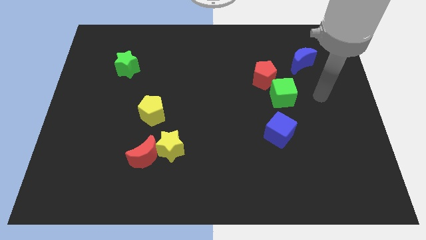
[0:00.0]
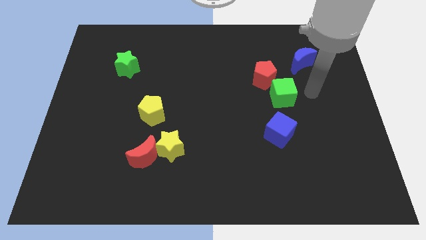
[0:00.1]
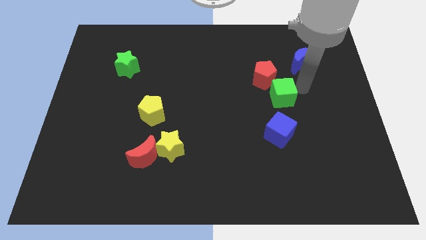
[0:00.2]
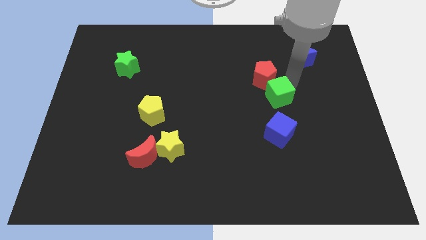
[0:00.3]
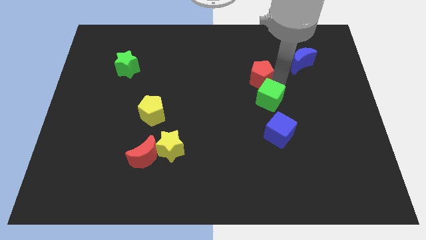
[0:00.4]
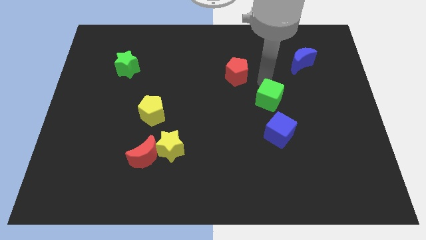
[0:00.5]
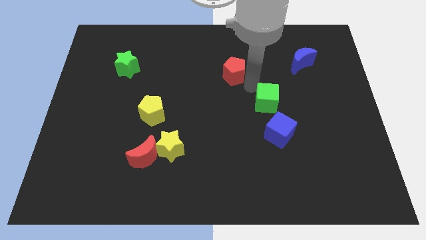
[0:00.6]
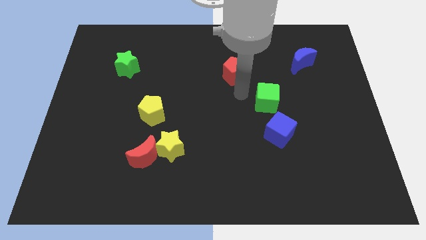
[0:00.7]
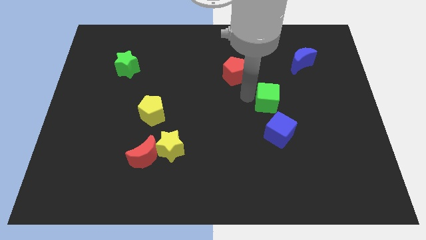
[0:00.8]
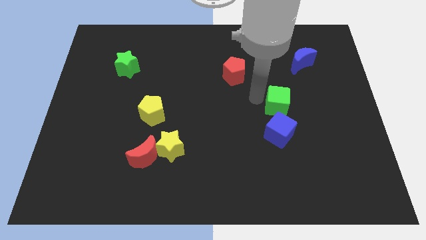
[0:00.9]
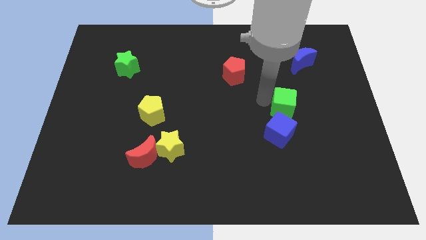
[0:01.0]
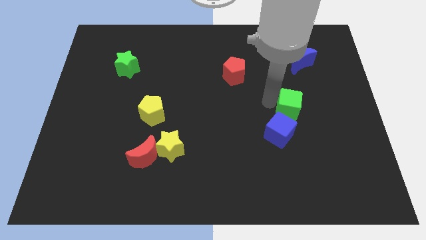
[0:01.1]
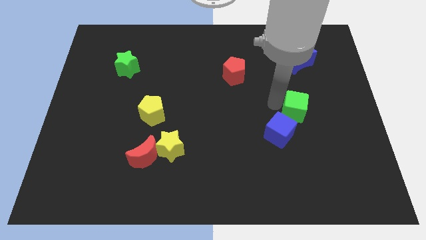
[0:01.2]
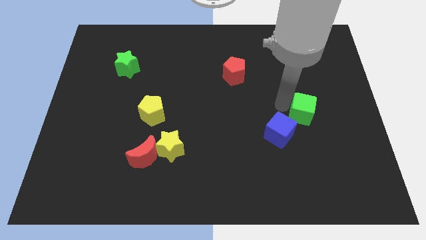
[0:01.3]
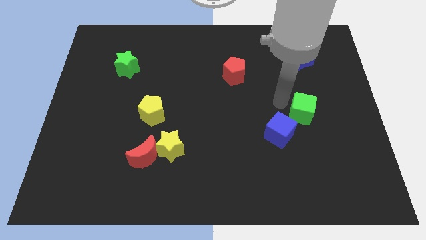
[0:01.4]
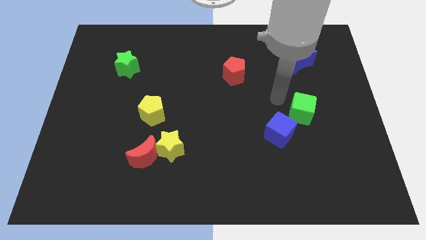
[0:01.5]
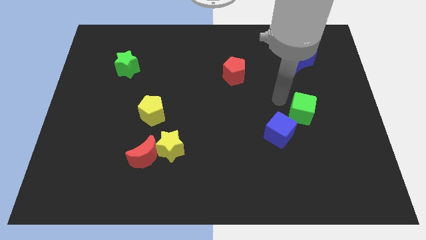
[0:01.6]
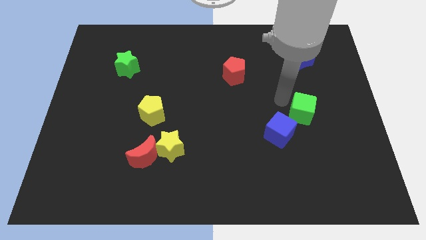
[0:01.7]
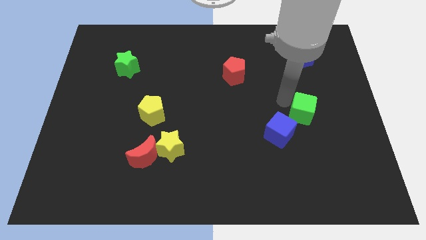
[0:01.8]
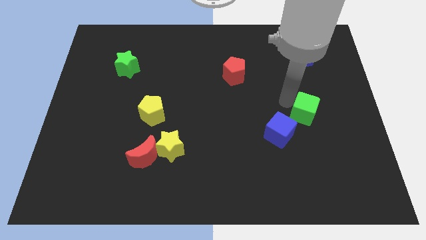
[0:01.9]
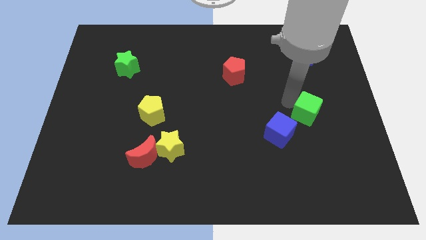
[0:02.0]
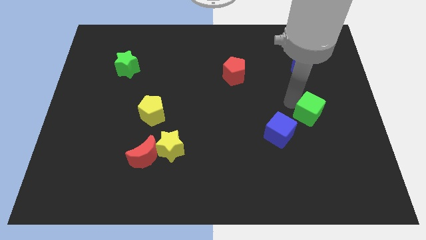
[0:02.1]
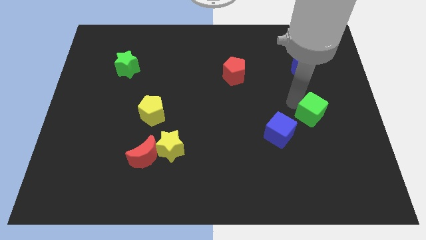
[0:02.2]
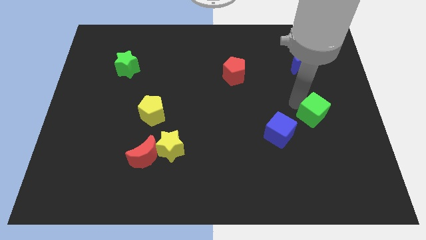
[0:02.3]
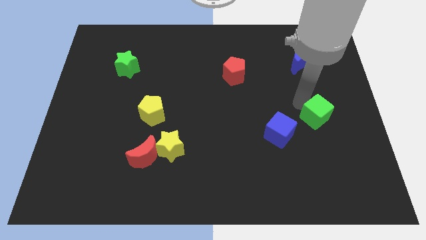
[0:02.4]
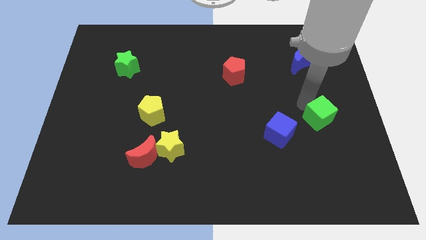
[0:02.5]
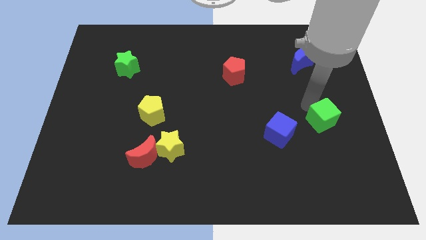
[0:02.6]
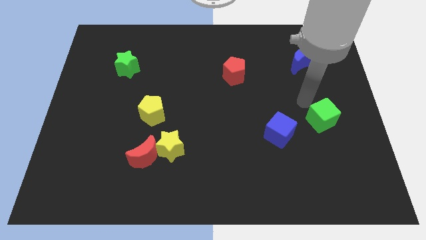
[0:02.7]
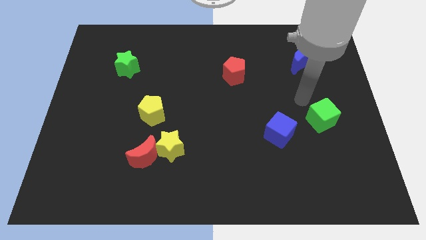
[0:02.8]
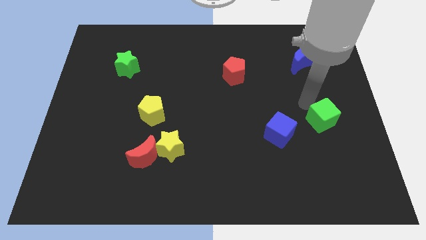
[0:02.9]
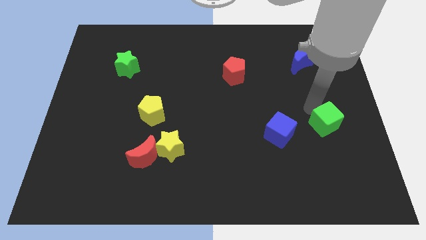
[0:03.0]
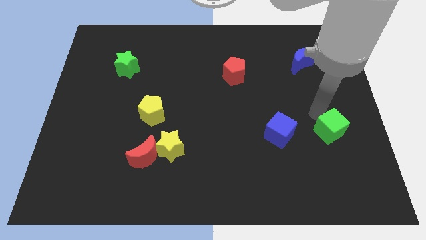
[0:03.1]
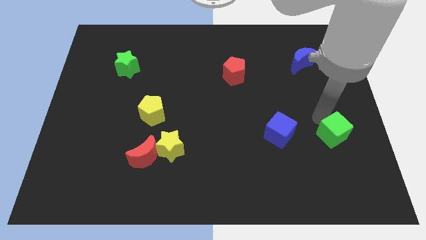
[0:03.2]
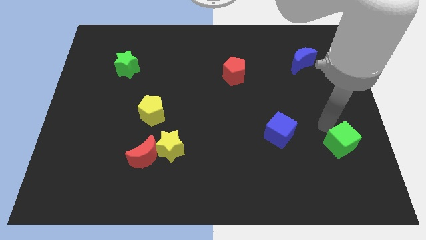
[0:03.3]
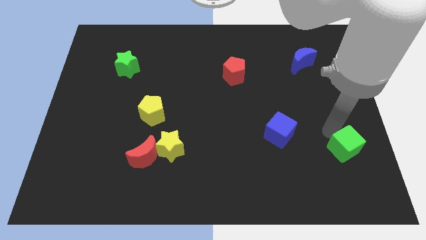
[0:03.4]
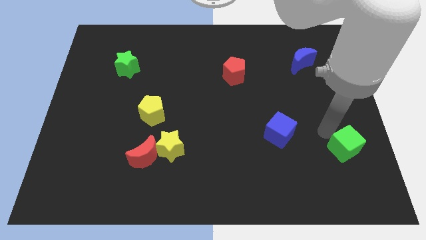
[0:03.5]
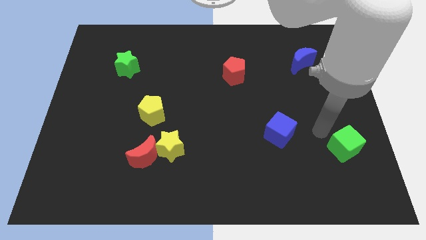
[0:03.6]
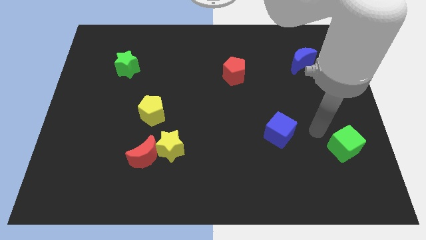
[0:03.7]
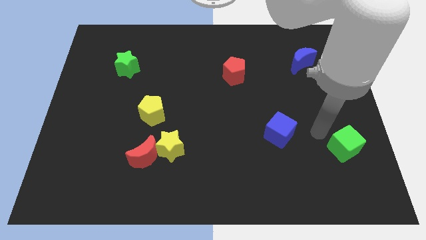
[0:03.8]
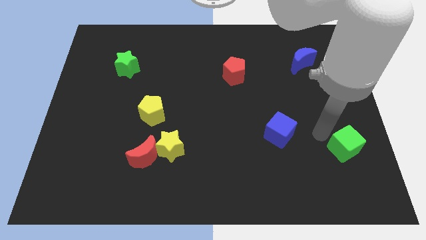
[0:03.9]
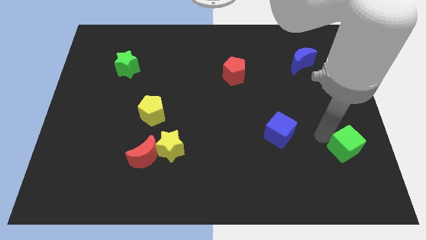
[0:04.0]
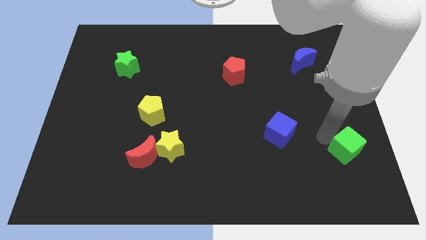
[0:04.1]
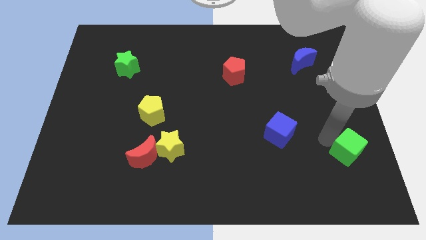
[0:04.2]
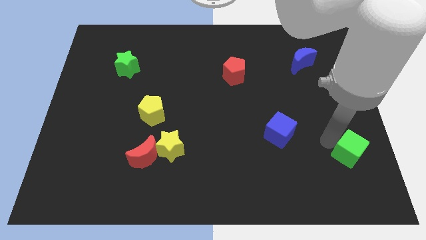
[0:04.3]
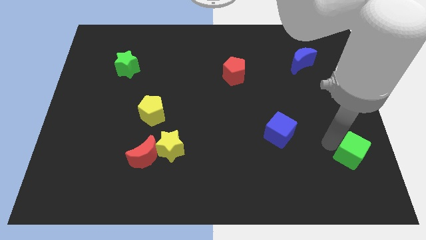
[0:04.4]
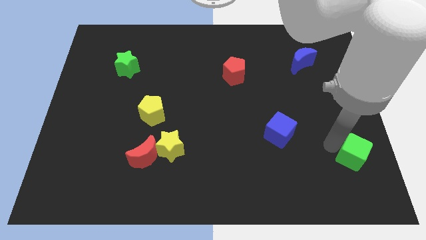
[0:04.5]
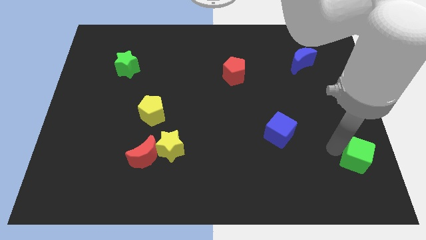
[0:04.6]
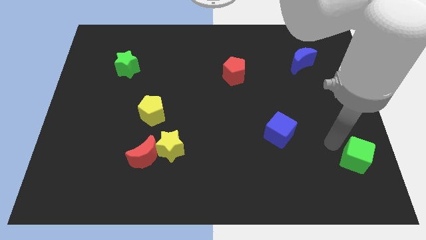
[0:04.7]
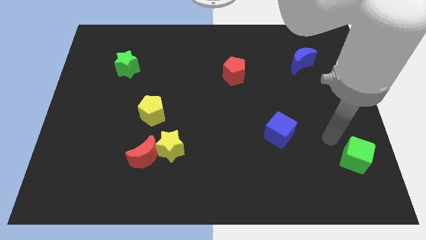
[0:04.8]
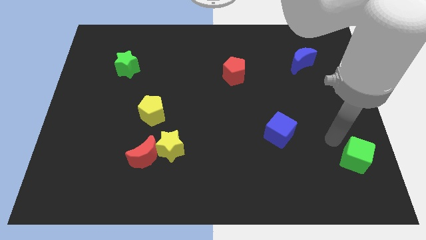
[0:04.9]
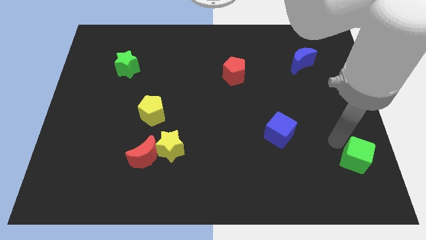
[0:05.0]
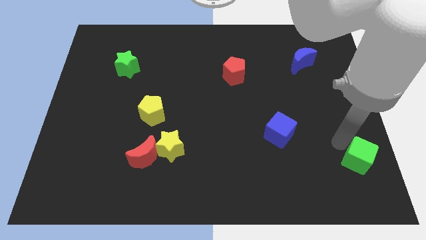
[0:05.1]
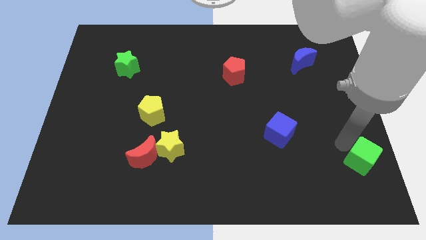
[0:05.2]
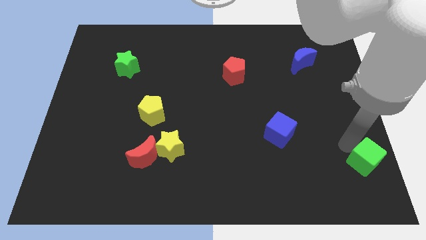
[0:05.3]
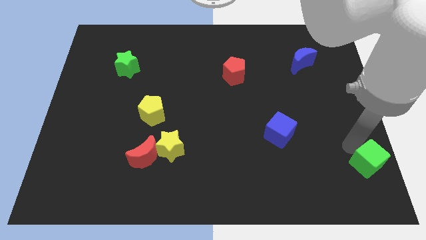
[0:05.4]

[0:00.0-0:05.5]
move the green cube to the bottom right corner

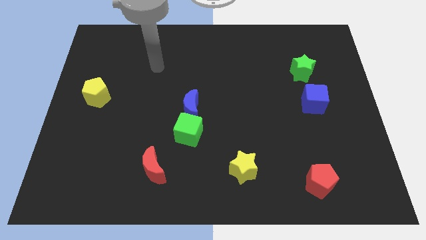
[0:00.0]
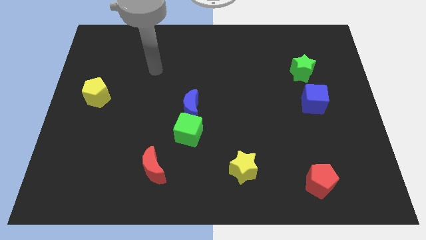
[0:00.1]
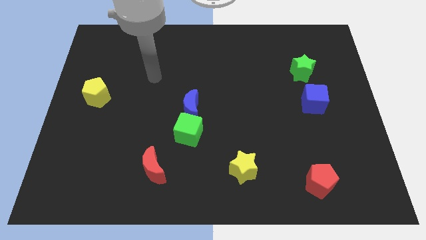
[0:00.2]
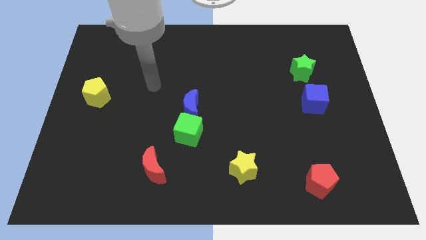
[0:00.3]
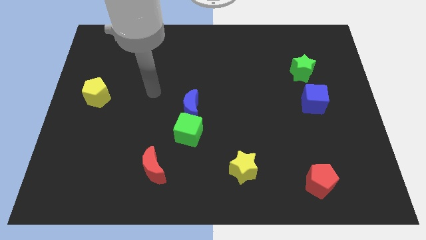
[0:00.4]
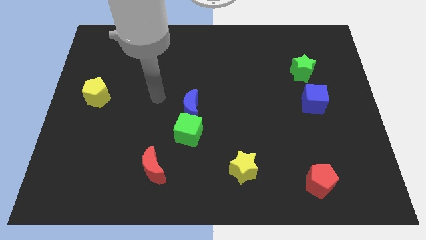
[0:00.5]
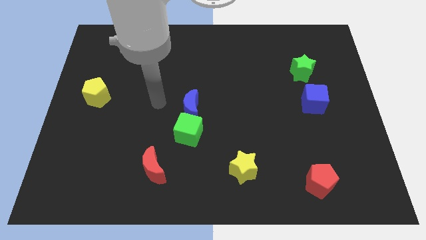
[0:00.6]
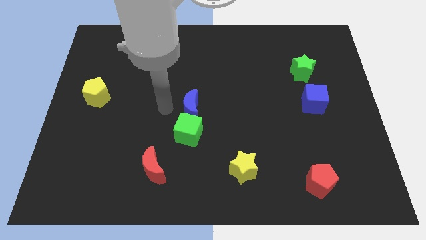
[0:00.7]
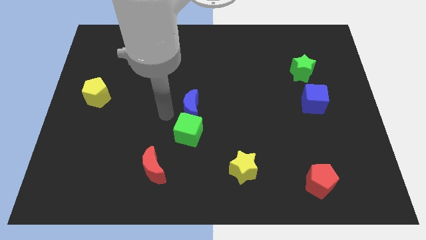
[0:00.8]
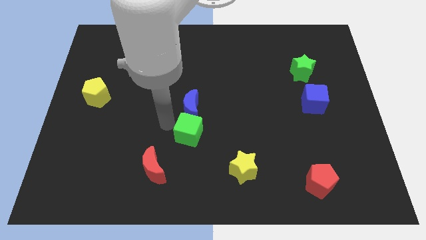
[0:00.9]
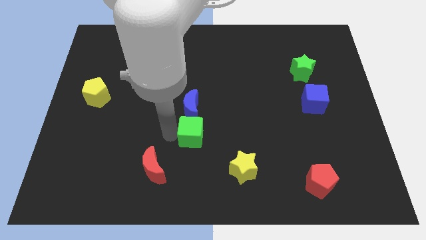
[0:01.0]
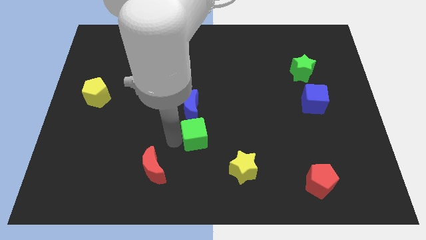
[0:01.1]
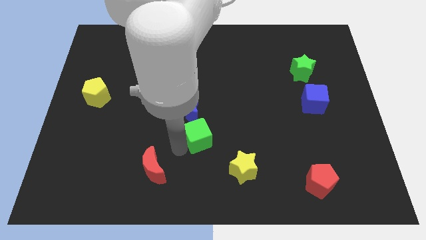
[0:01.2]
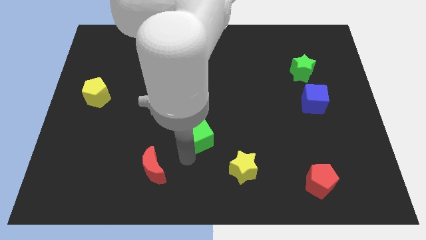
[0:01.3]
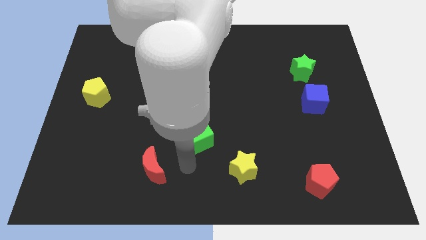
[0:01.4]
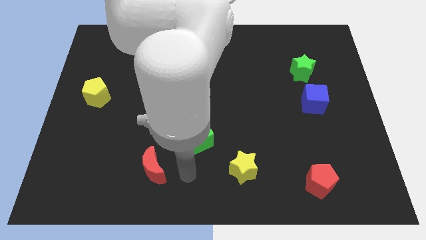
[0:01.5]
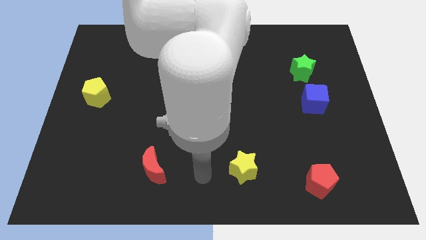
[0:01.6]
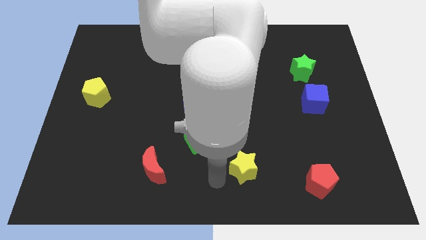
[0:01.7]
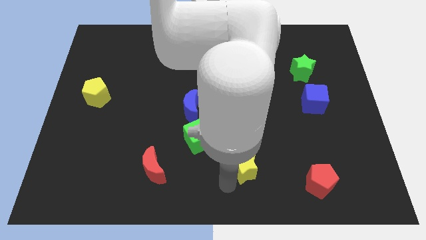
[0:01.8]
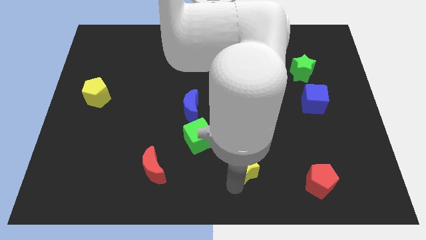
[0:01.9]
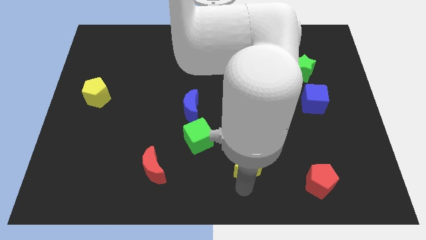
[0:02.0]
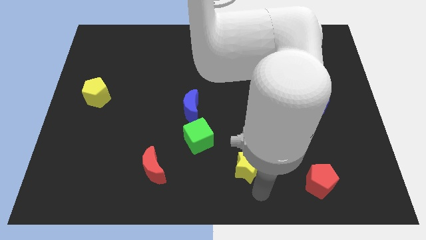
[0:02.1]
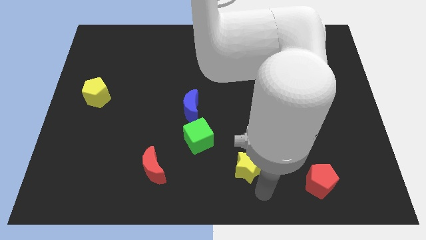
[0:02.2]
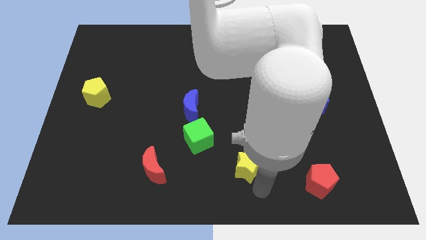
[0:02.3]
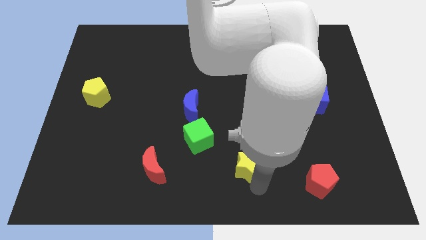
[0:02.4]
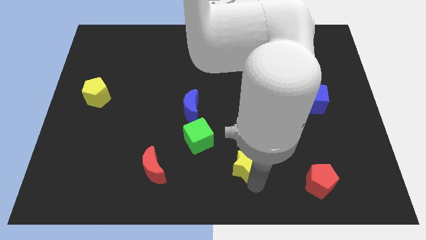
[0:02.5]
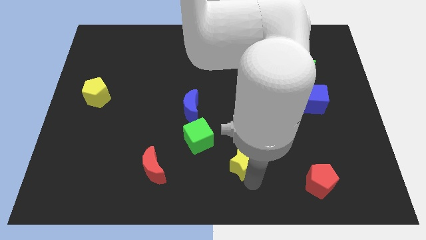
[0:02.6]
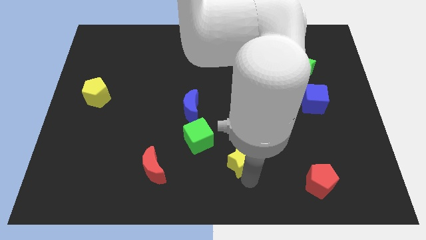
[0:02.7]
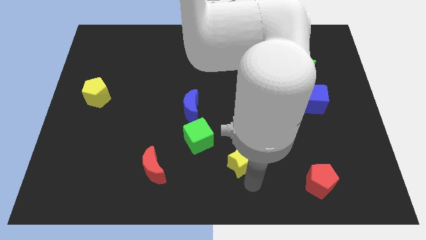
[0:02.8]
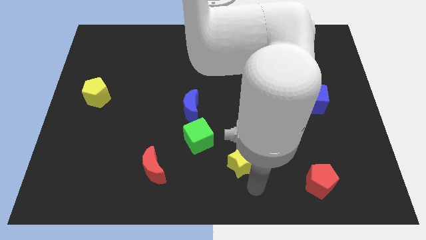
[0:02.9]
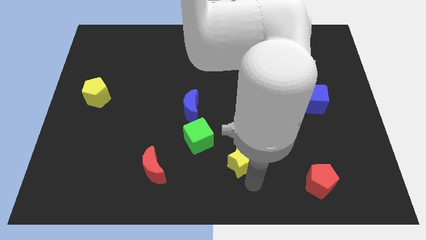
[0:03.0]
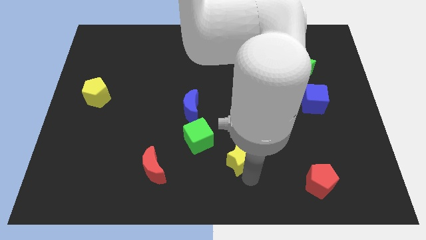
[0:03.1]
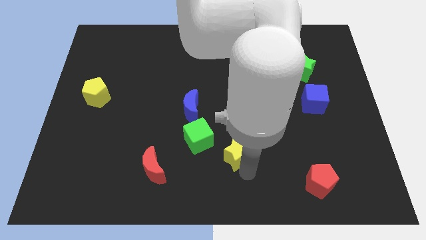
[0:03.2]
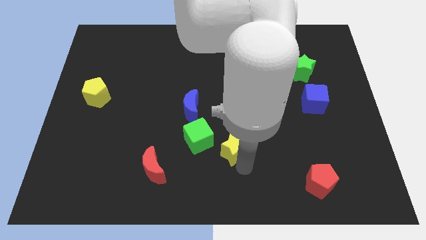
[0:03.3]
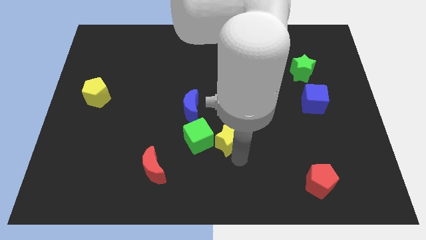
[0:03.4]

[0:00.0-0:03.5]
put the yellow star to the center
